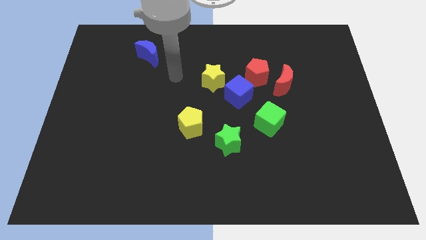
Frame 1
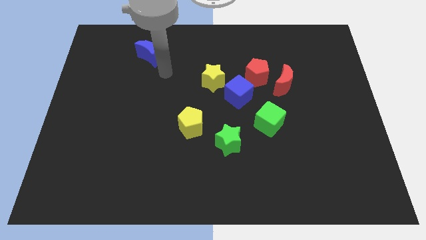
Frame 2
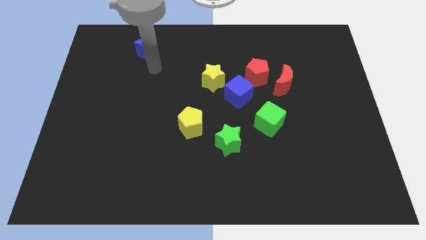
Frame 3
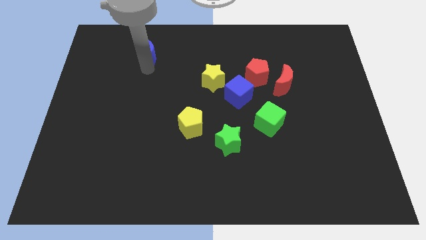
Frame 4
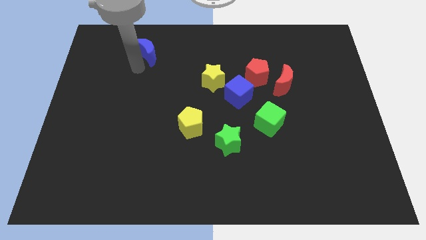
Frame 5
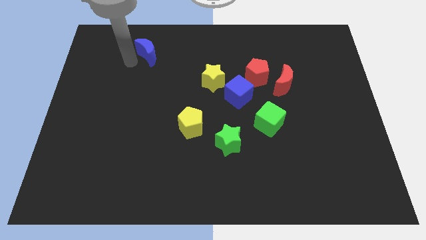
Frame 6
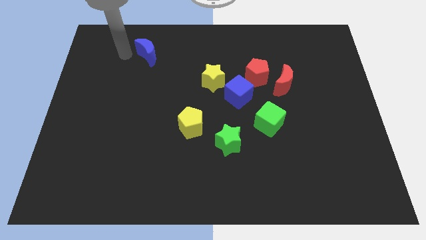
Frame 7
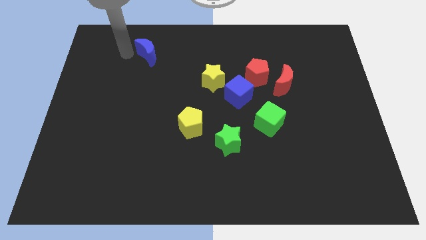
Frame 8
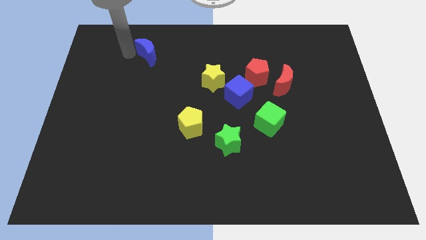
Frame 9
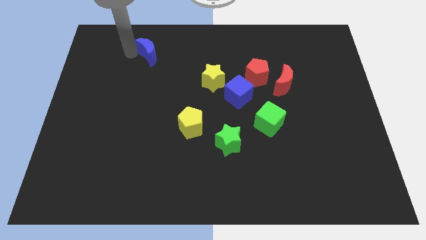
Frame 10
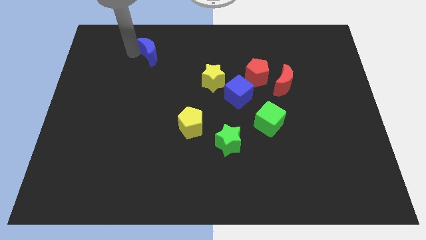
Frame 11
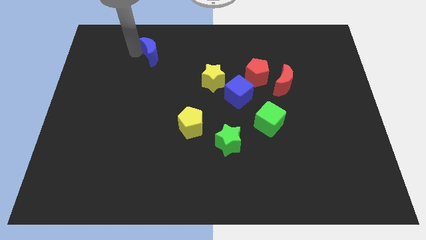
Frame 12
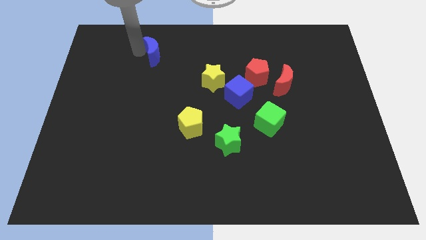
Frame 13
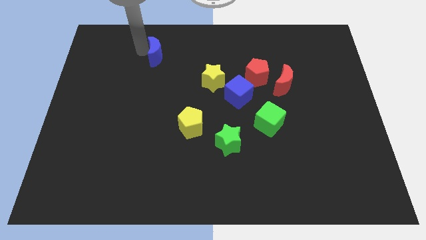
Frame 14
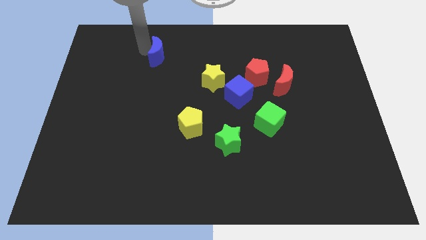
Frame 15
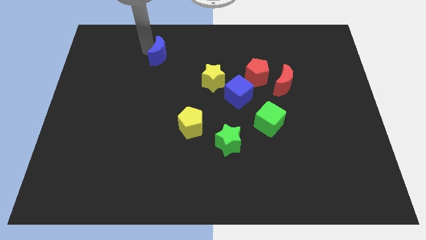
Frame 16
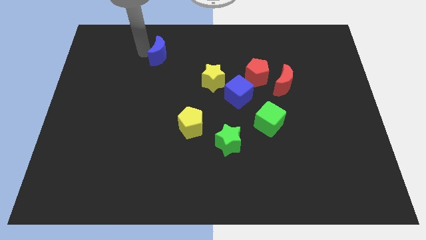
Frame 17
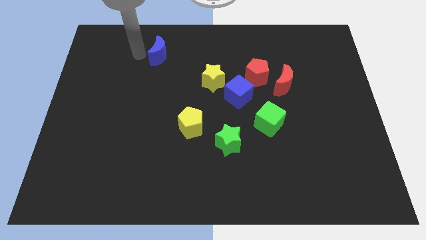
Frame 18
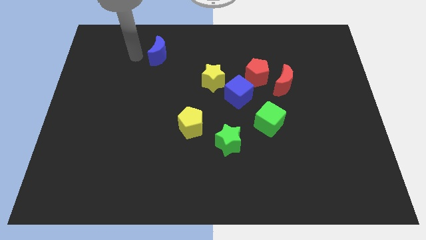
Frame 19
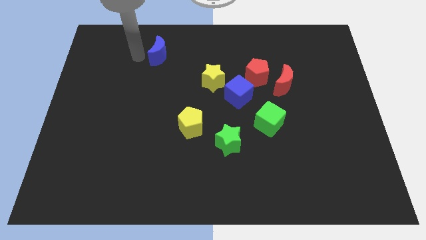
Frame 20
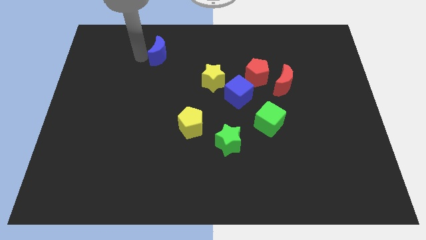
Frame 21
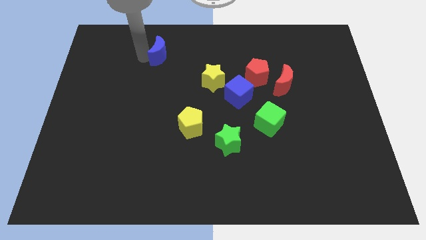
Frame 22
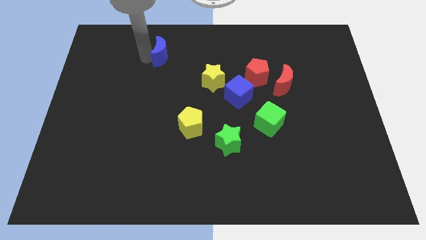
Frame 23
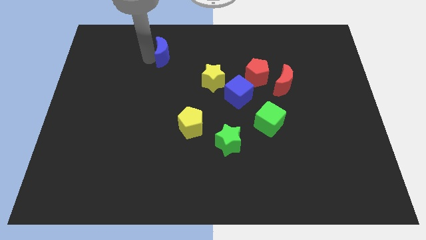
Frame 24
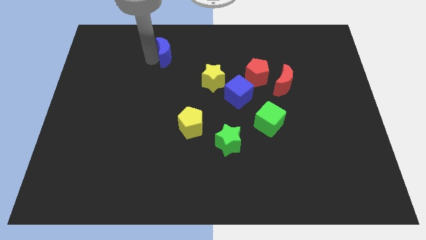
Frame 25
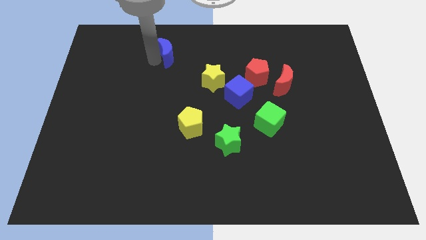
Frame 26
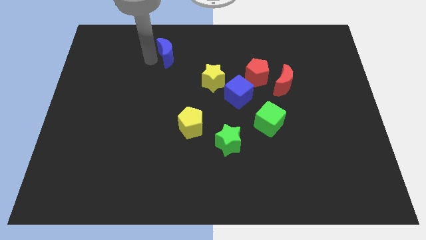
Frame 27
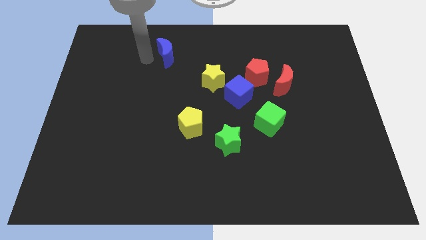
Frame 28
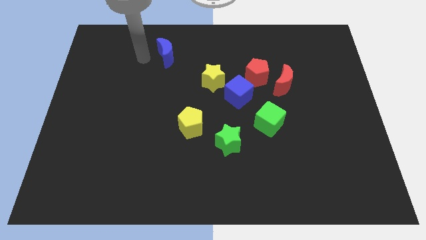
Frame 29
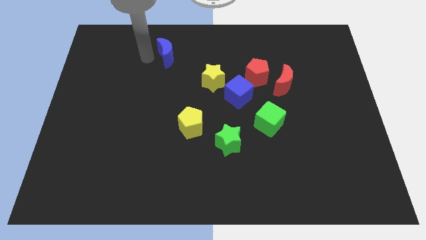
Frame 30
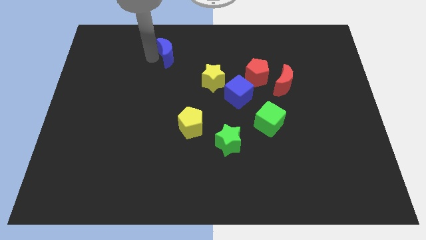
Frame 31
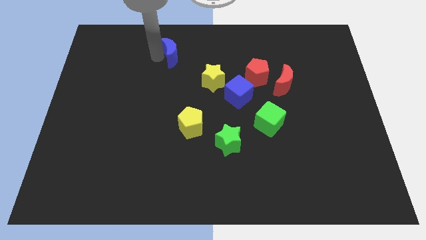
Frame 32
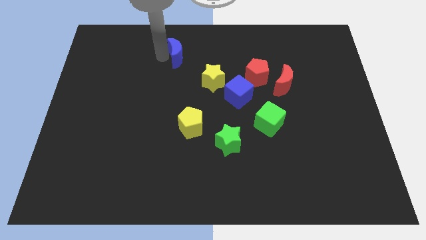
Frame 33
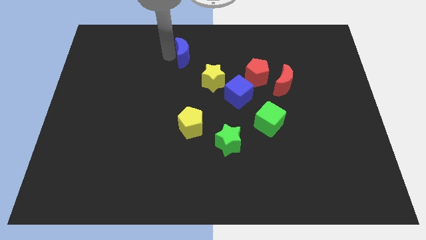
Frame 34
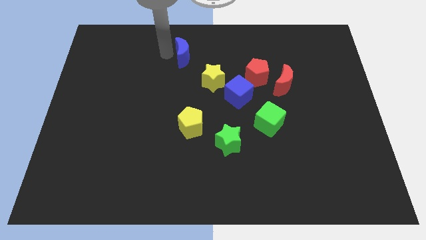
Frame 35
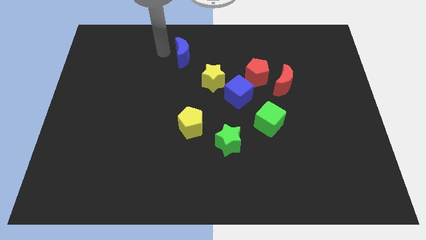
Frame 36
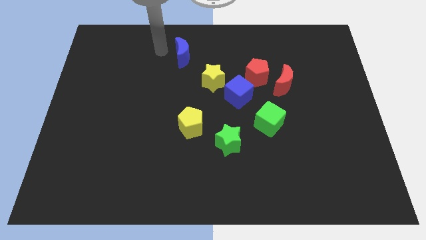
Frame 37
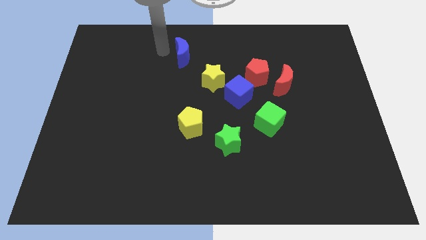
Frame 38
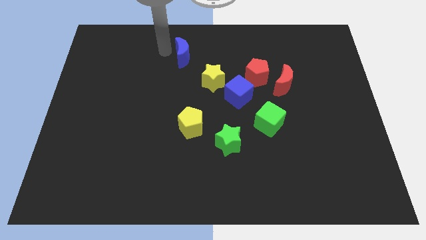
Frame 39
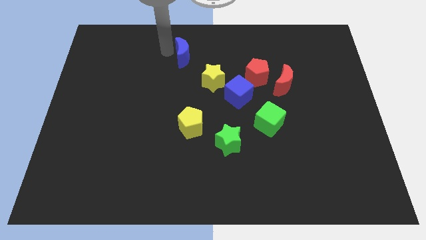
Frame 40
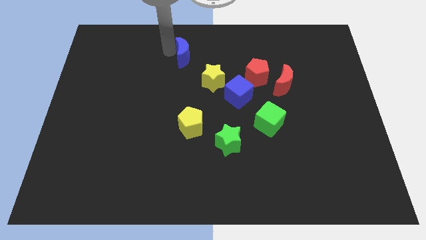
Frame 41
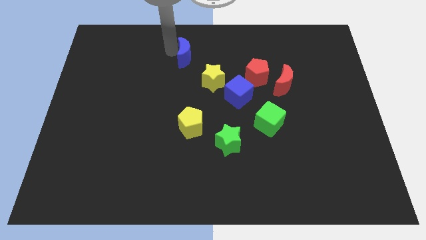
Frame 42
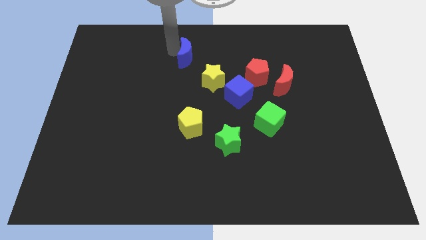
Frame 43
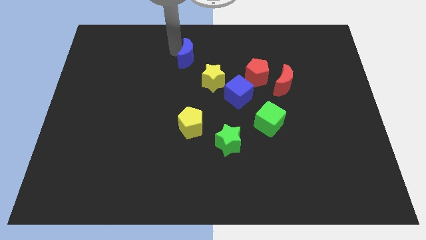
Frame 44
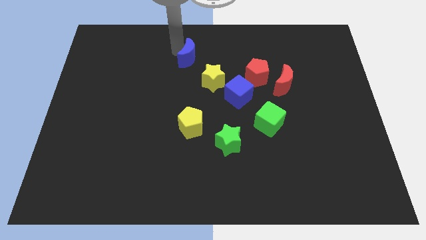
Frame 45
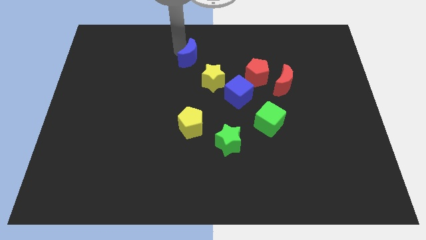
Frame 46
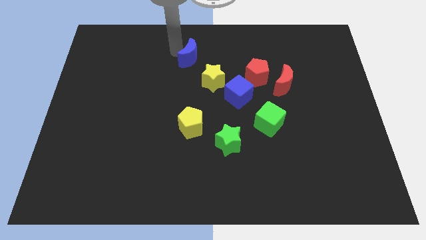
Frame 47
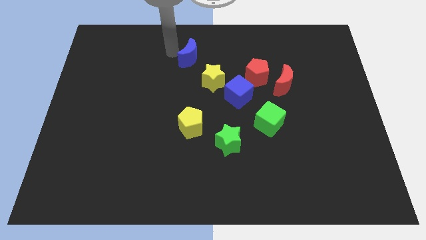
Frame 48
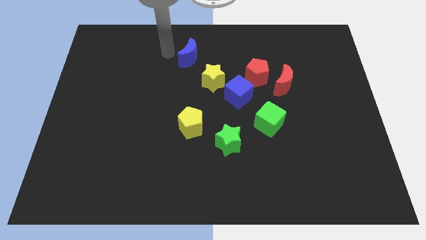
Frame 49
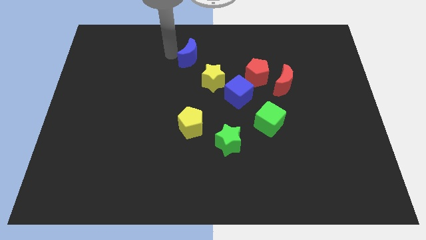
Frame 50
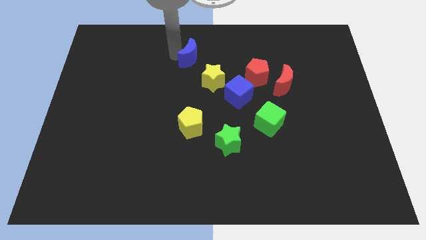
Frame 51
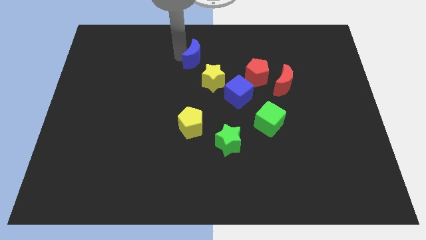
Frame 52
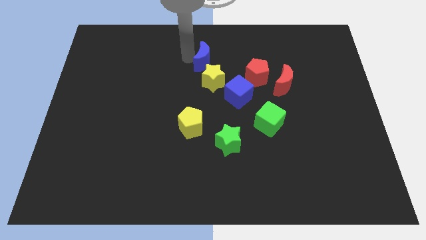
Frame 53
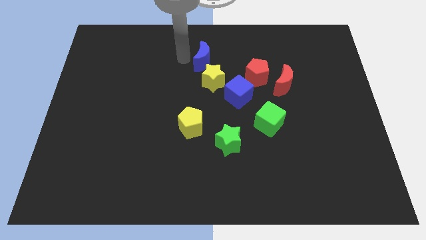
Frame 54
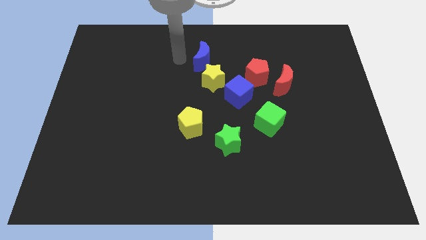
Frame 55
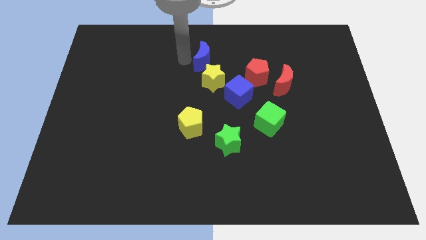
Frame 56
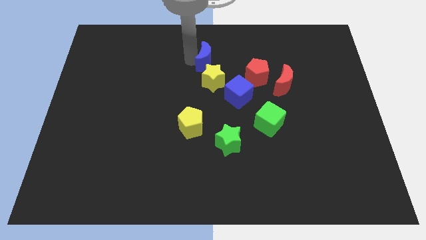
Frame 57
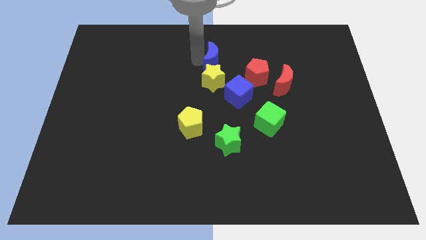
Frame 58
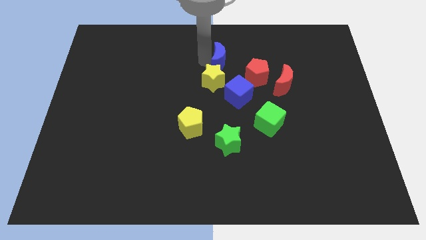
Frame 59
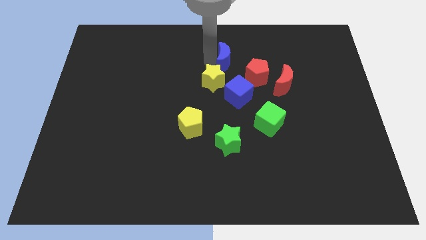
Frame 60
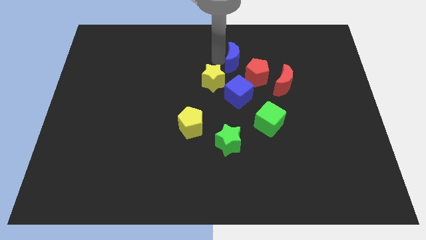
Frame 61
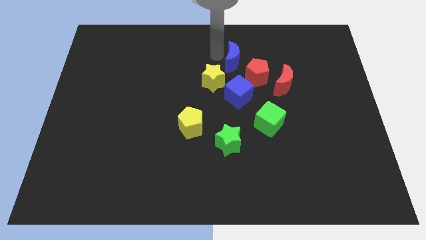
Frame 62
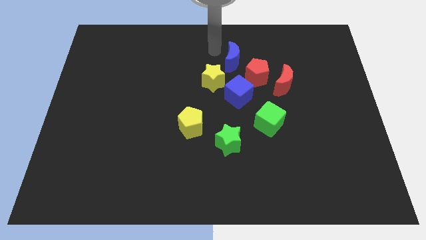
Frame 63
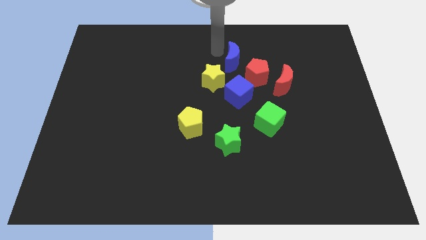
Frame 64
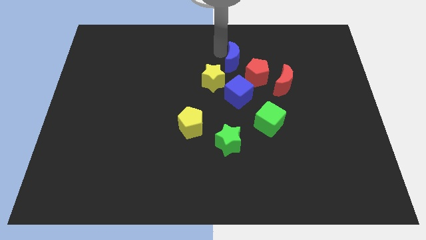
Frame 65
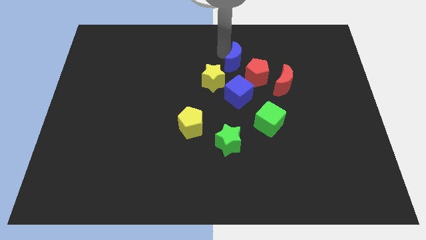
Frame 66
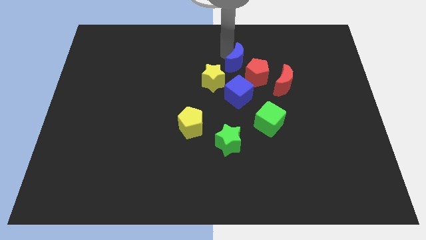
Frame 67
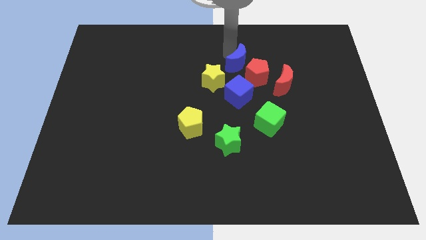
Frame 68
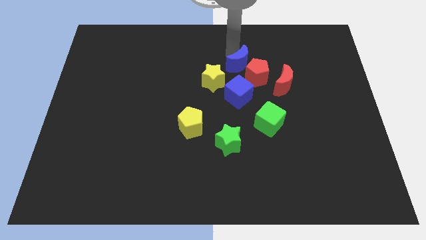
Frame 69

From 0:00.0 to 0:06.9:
slide the blue moon towards the red pentagon
